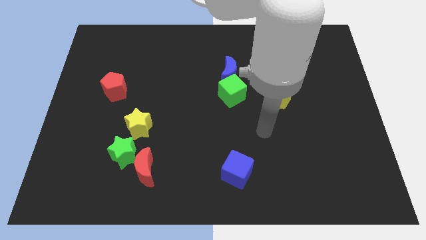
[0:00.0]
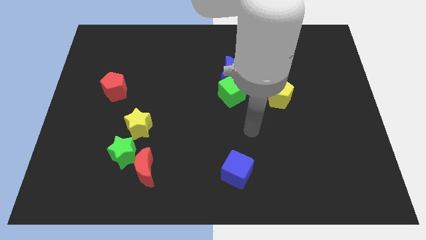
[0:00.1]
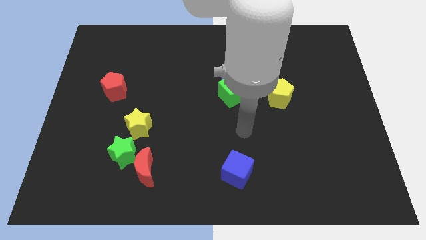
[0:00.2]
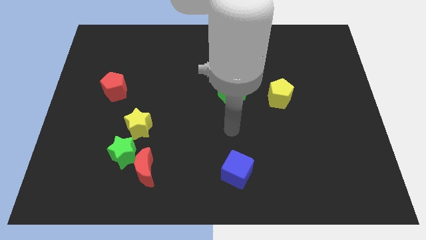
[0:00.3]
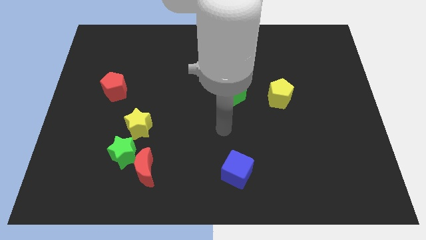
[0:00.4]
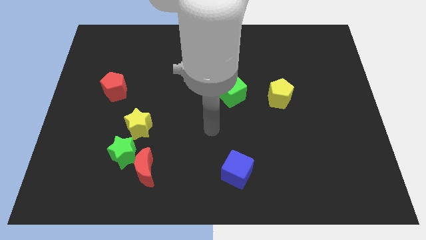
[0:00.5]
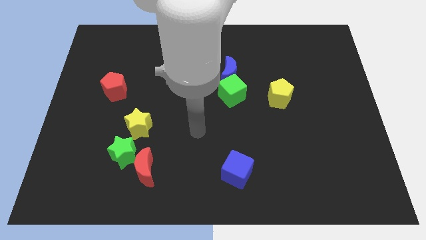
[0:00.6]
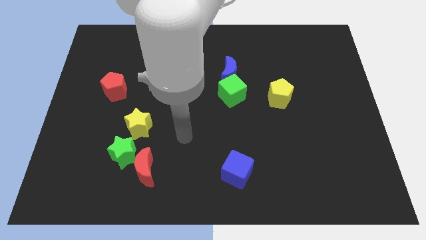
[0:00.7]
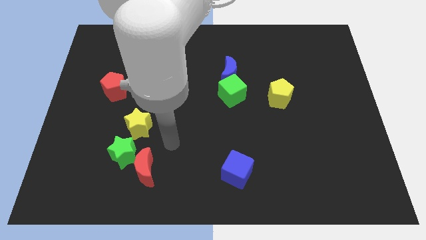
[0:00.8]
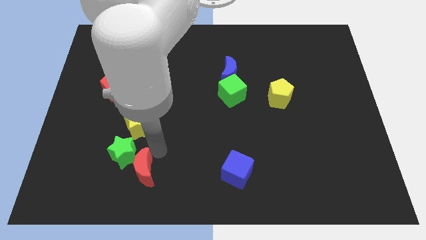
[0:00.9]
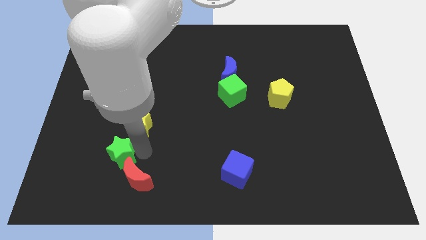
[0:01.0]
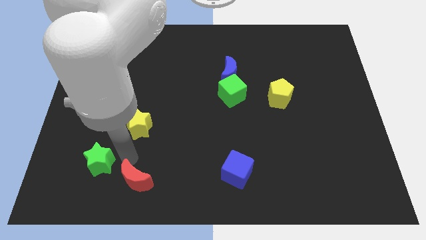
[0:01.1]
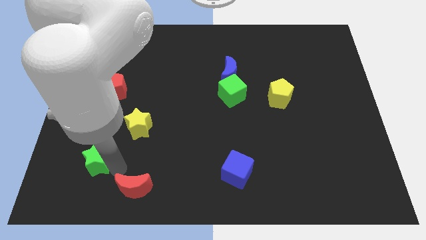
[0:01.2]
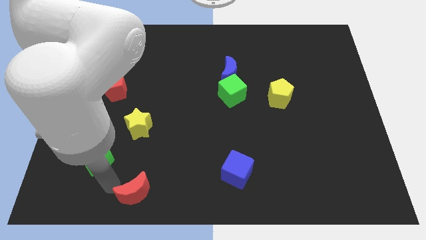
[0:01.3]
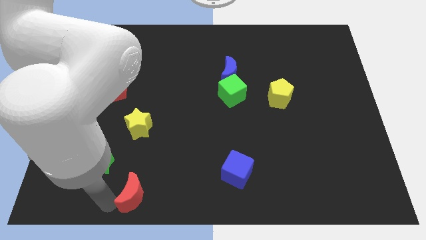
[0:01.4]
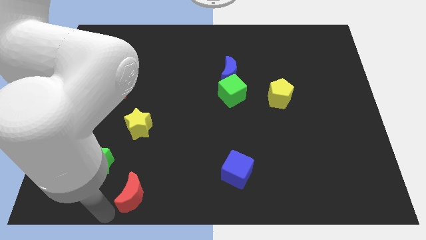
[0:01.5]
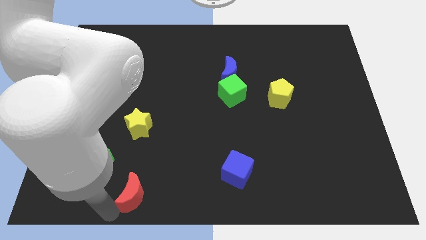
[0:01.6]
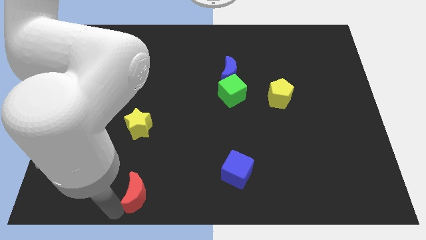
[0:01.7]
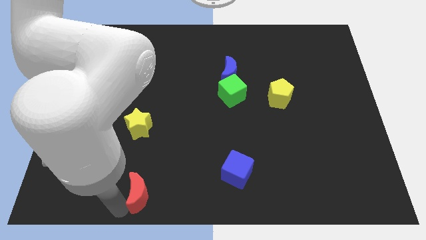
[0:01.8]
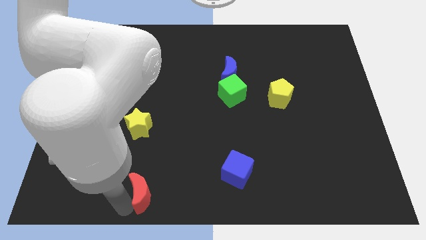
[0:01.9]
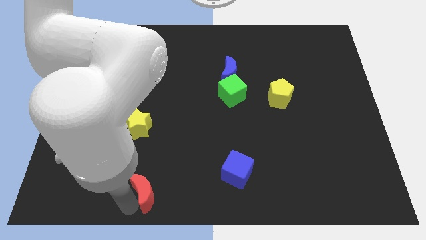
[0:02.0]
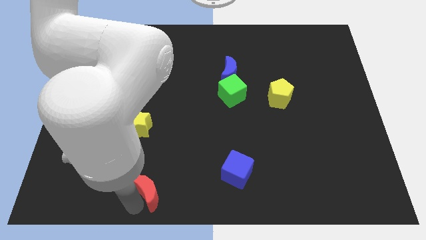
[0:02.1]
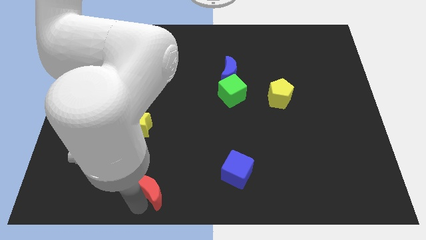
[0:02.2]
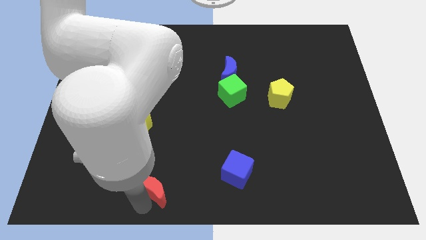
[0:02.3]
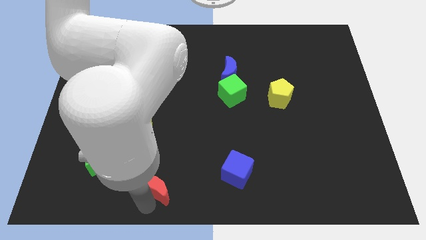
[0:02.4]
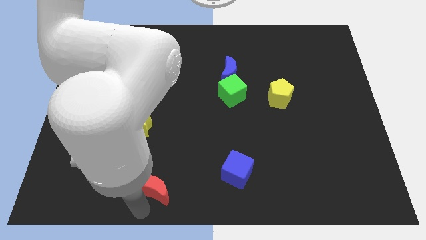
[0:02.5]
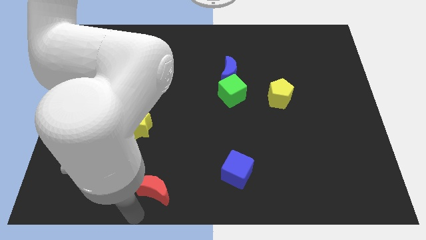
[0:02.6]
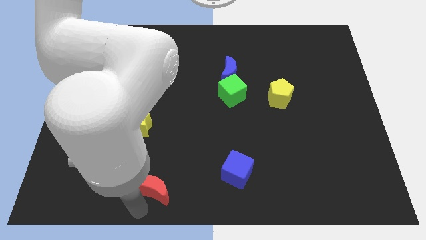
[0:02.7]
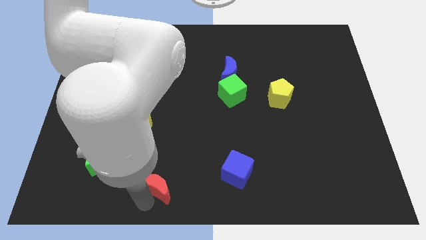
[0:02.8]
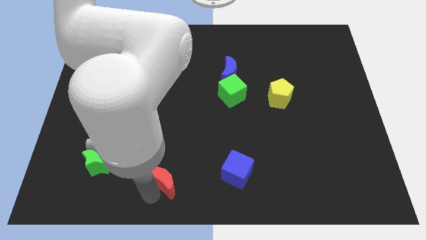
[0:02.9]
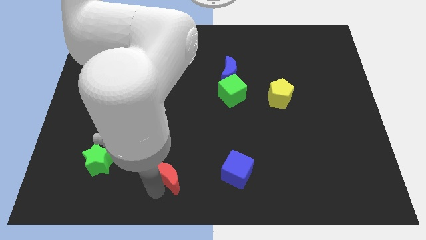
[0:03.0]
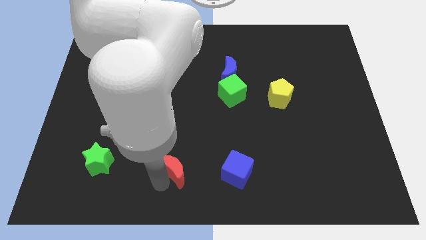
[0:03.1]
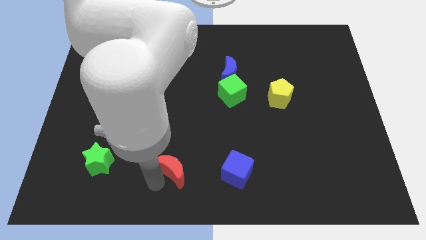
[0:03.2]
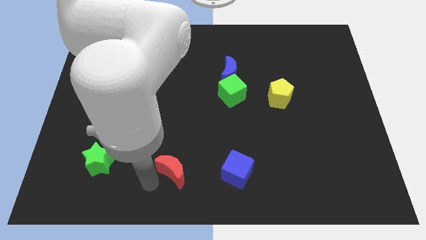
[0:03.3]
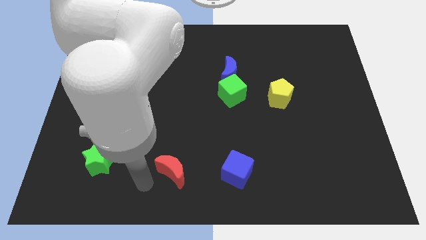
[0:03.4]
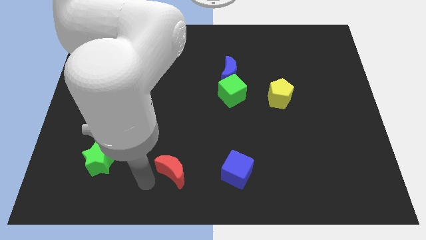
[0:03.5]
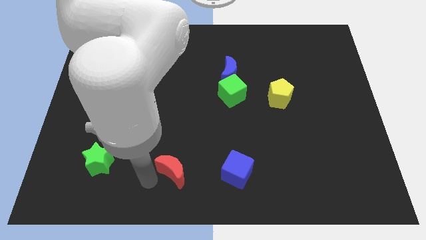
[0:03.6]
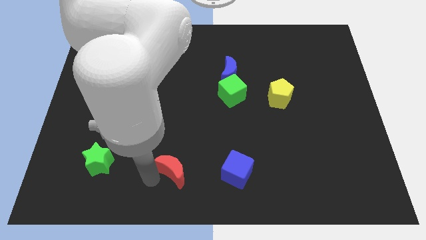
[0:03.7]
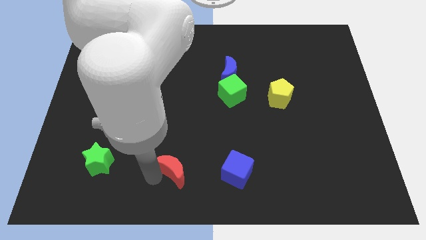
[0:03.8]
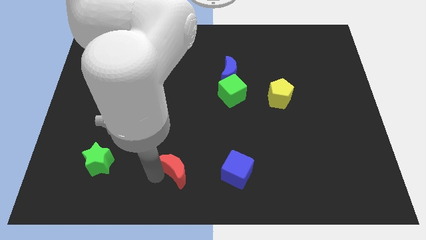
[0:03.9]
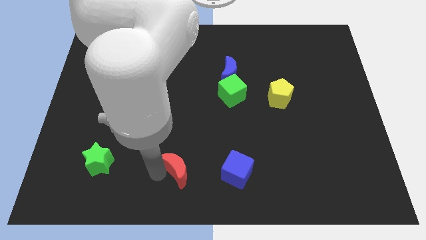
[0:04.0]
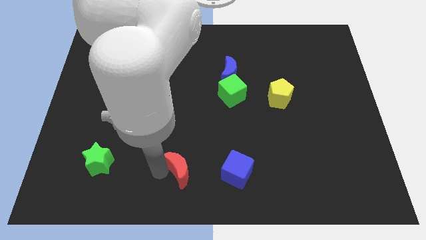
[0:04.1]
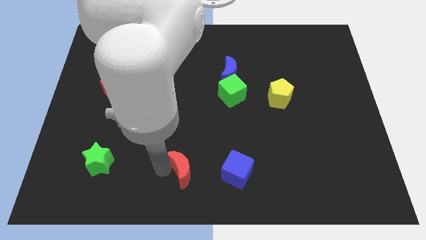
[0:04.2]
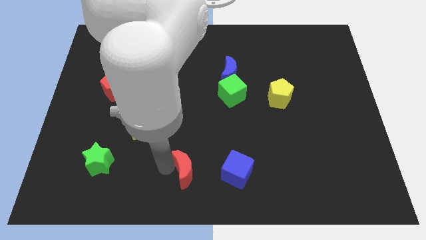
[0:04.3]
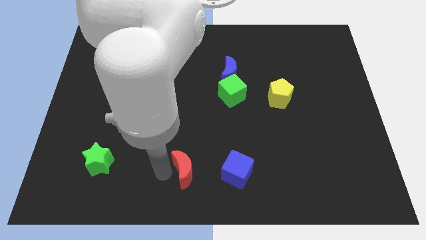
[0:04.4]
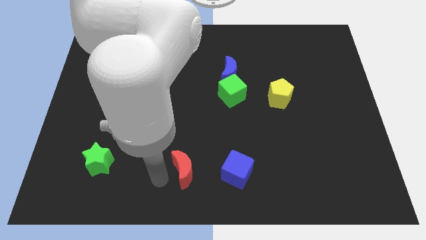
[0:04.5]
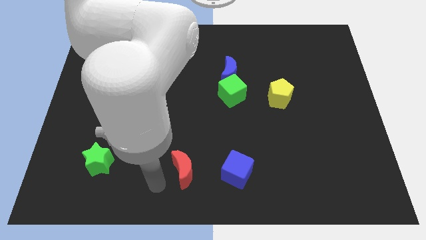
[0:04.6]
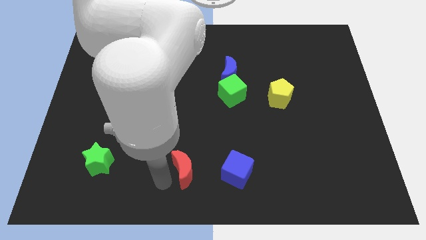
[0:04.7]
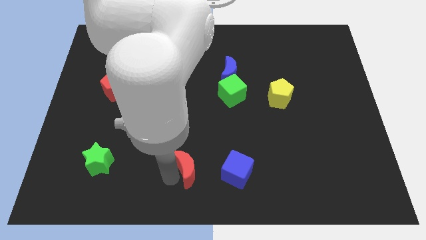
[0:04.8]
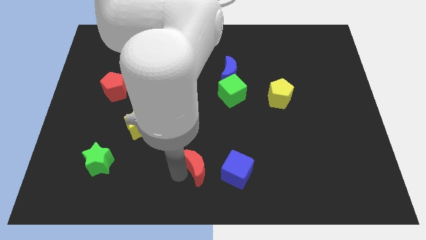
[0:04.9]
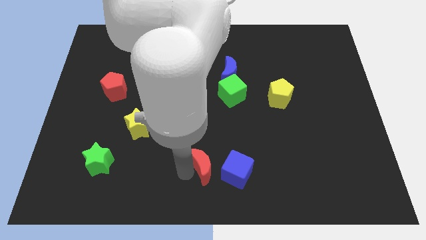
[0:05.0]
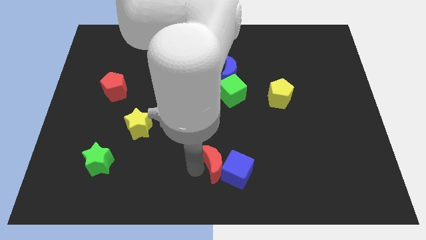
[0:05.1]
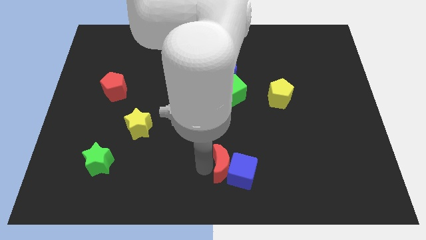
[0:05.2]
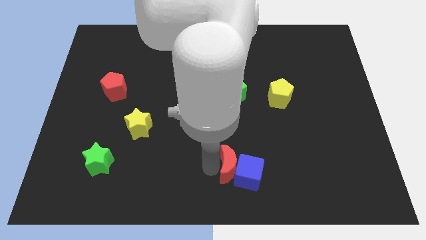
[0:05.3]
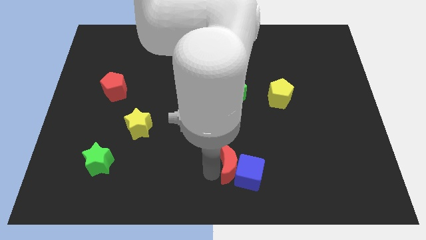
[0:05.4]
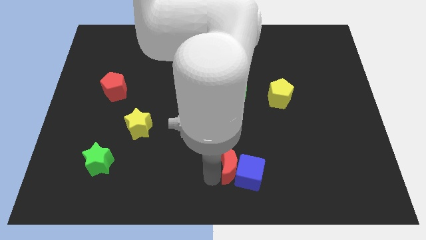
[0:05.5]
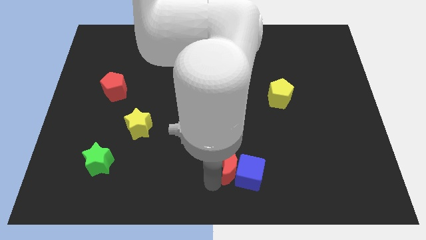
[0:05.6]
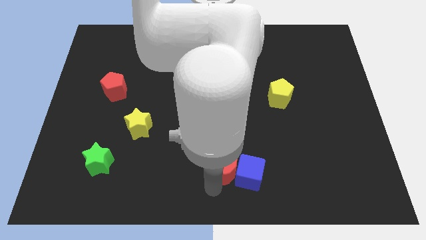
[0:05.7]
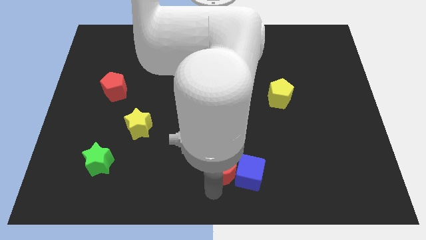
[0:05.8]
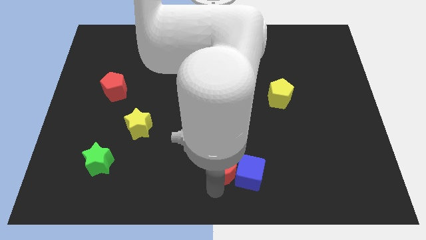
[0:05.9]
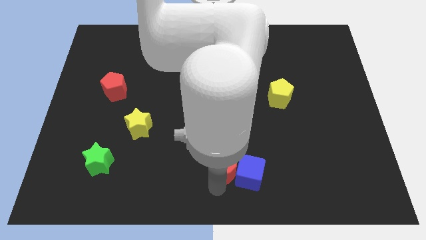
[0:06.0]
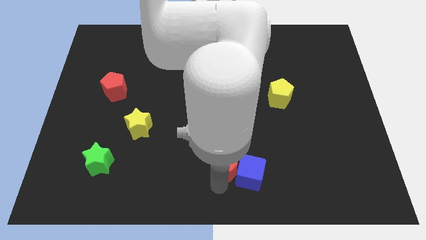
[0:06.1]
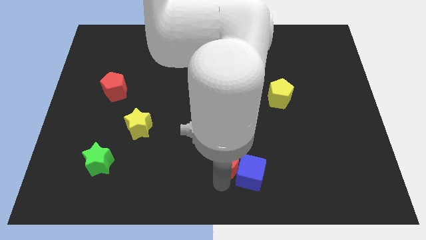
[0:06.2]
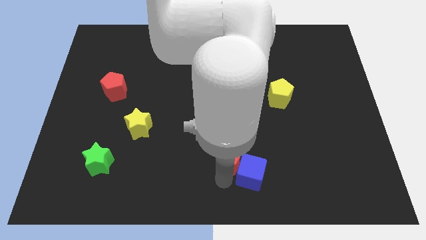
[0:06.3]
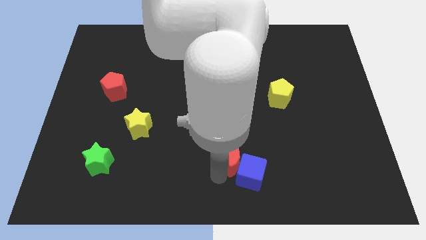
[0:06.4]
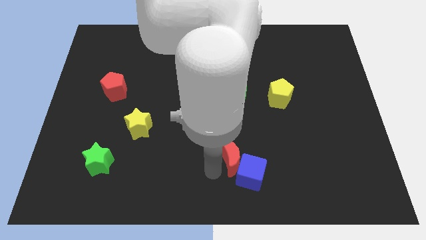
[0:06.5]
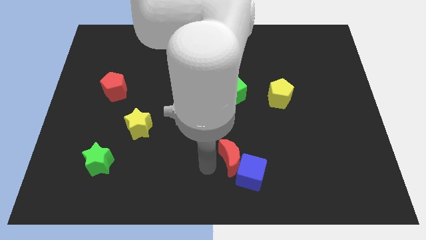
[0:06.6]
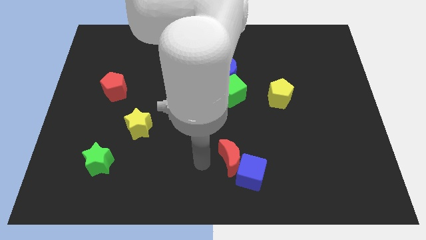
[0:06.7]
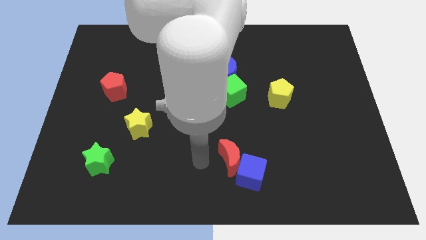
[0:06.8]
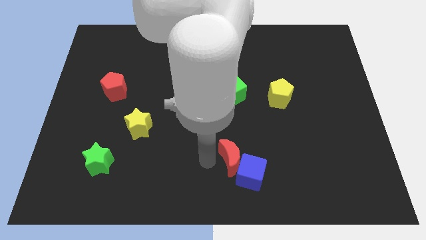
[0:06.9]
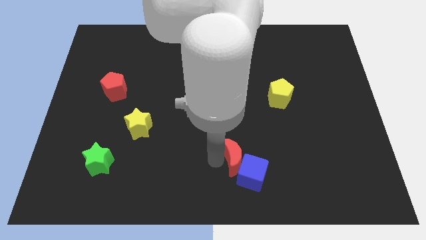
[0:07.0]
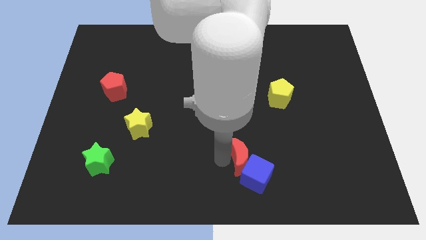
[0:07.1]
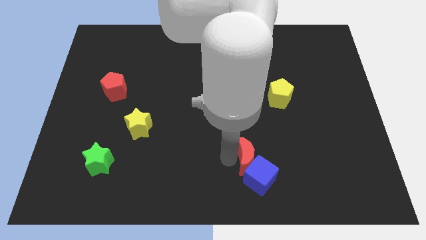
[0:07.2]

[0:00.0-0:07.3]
move the red moon right

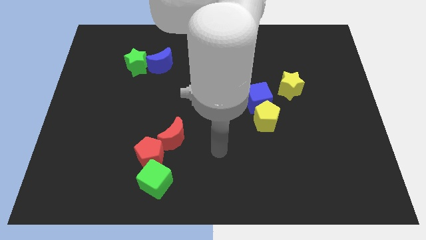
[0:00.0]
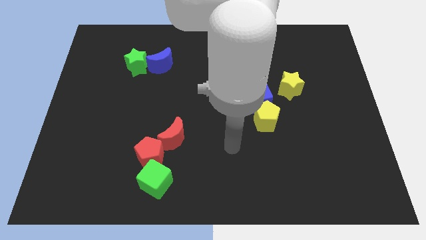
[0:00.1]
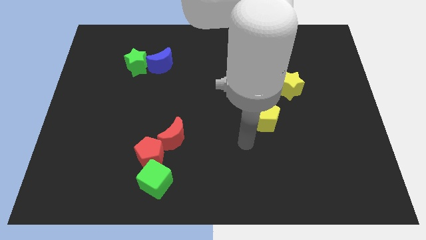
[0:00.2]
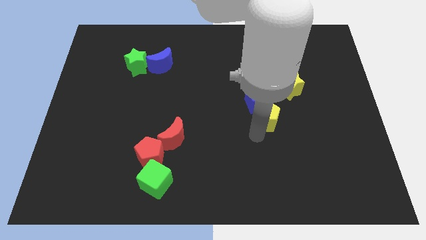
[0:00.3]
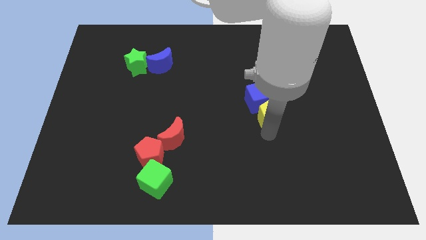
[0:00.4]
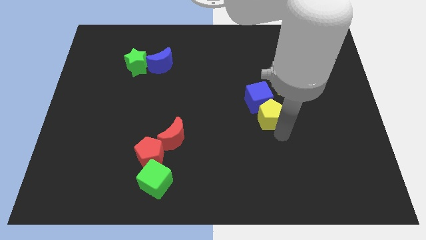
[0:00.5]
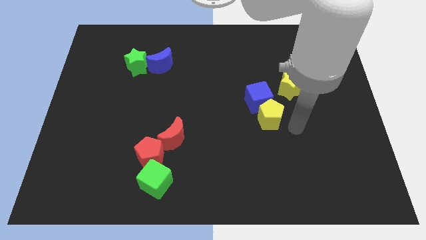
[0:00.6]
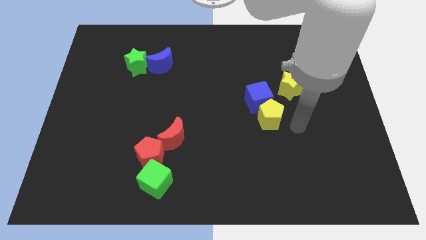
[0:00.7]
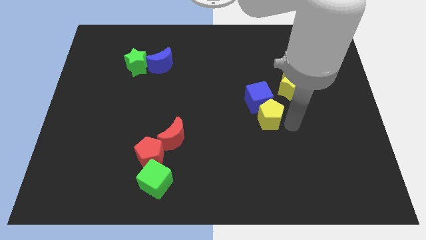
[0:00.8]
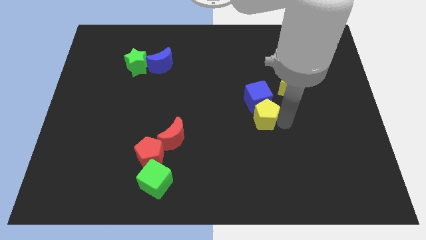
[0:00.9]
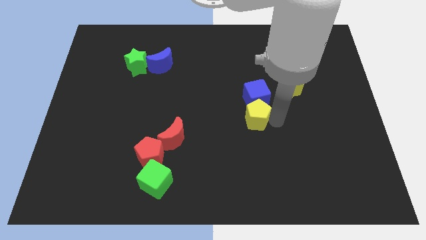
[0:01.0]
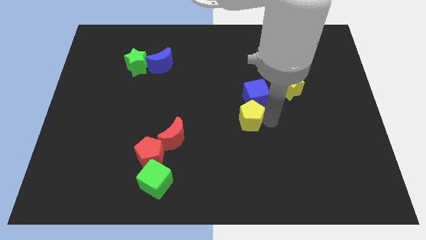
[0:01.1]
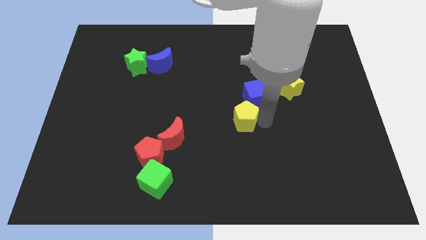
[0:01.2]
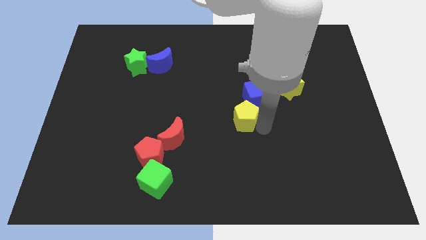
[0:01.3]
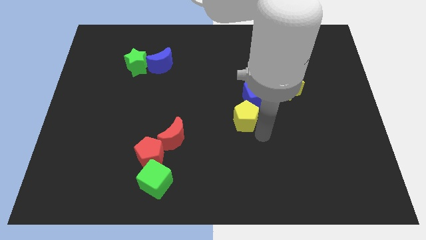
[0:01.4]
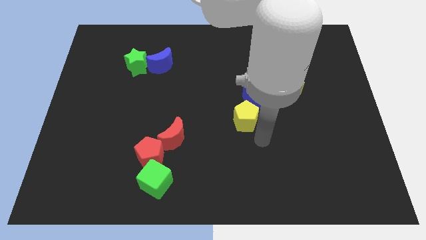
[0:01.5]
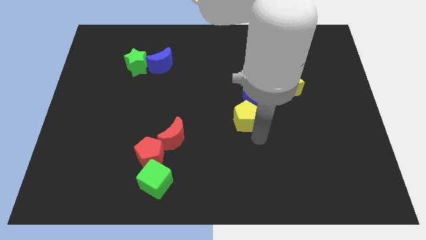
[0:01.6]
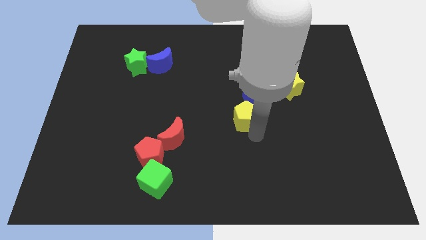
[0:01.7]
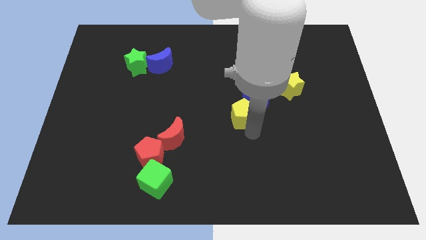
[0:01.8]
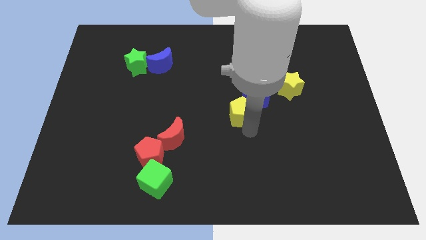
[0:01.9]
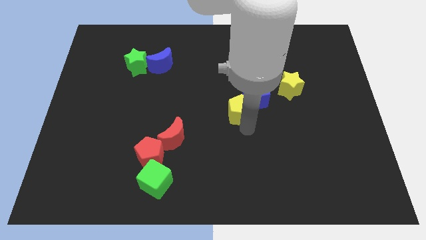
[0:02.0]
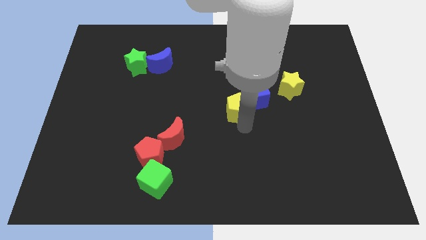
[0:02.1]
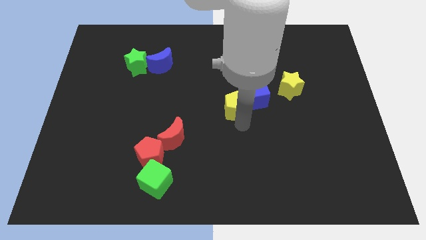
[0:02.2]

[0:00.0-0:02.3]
slightly push the yellow pentagon diagonally up and left
